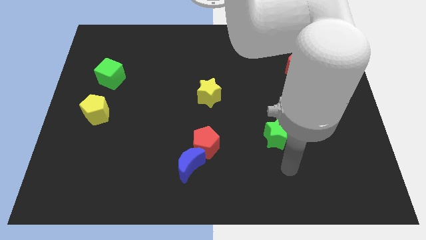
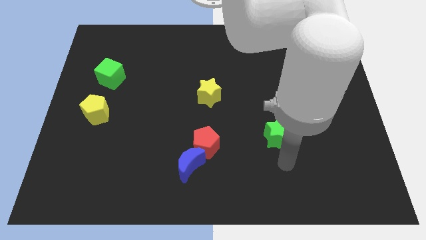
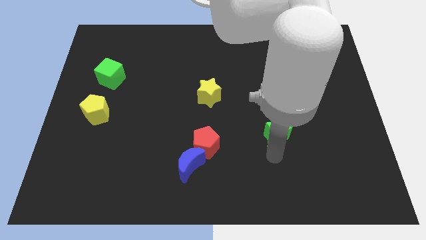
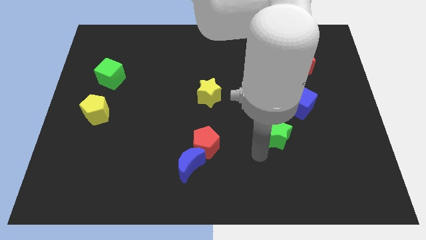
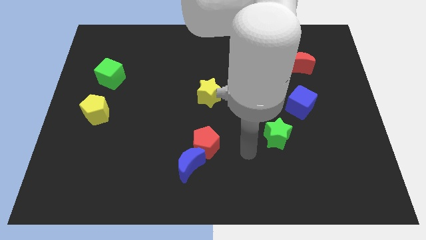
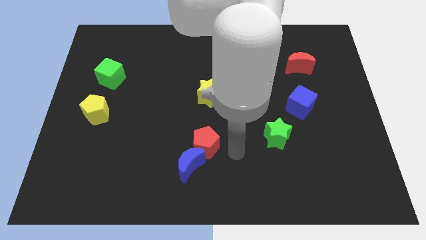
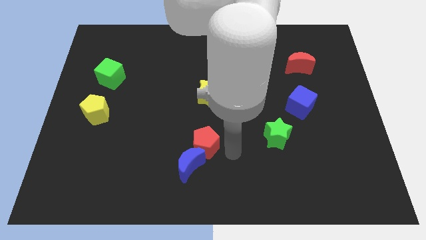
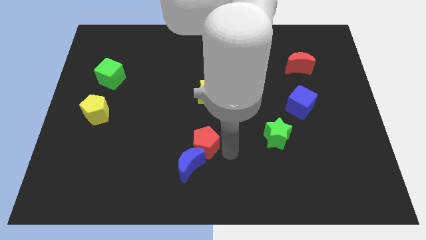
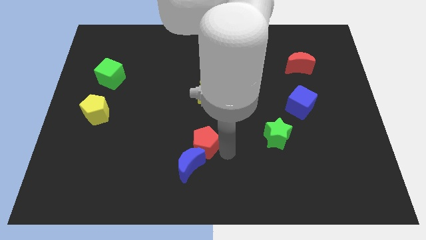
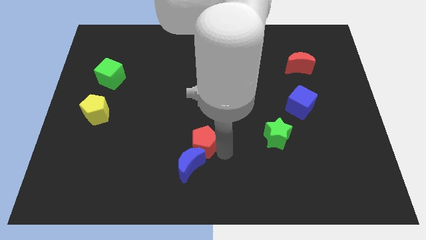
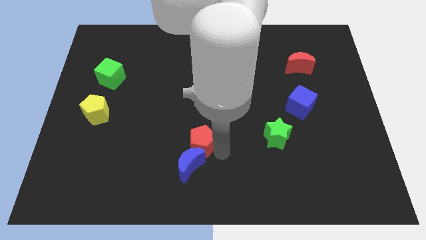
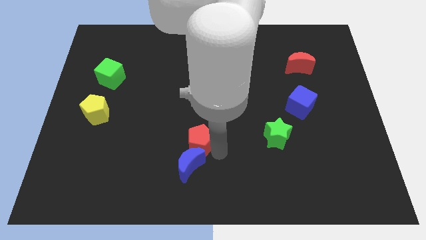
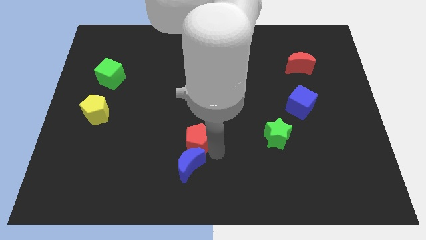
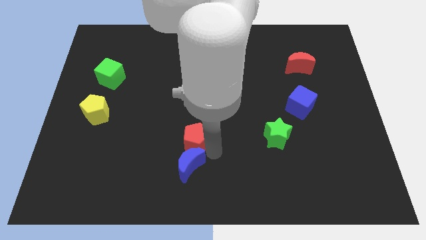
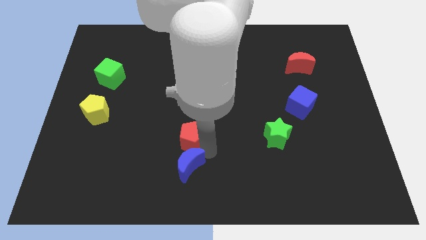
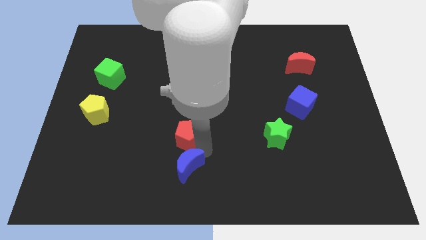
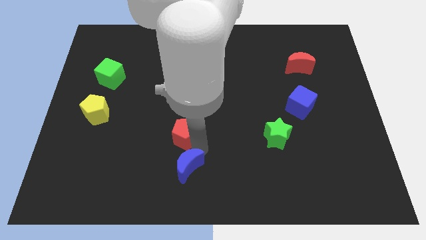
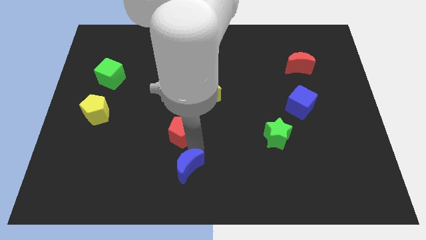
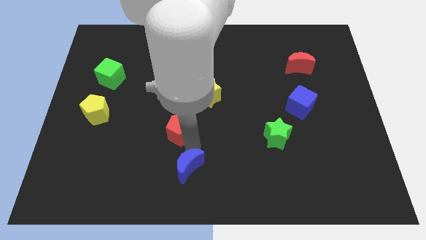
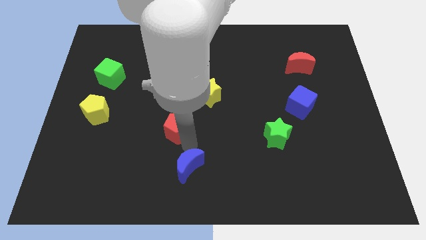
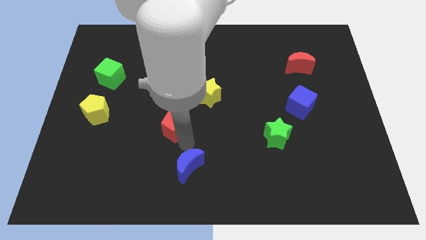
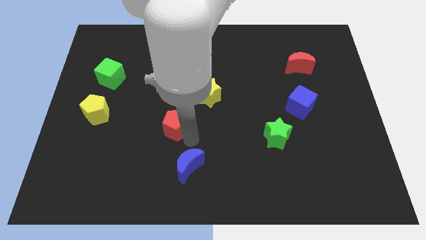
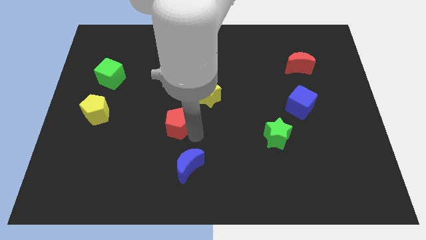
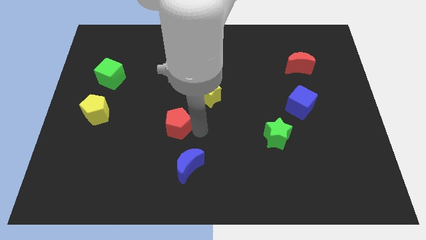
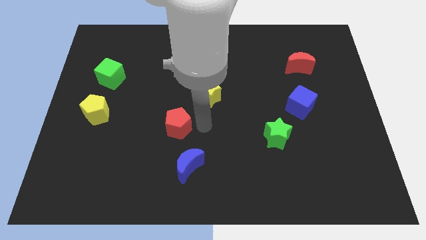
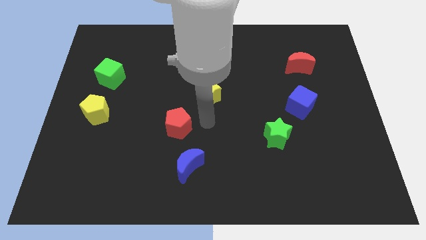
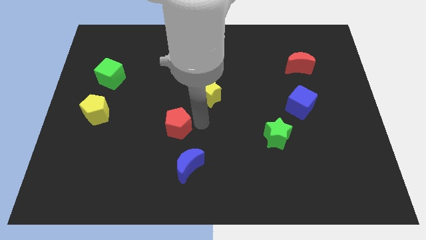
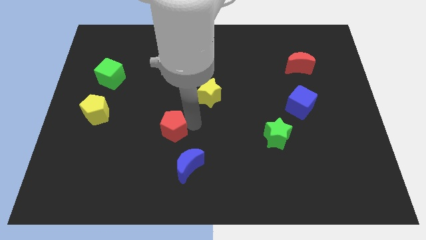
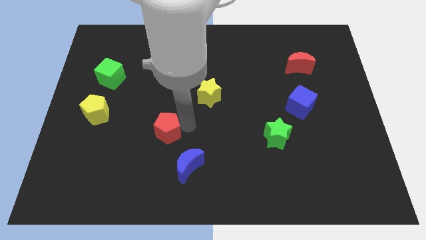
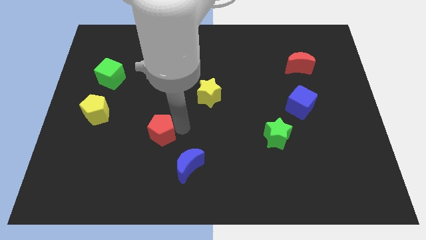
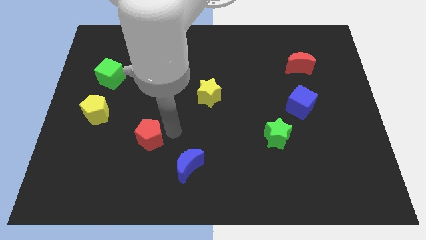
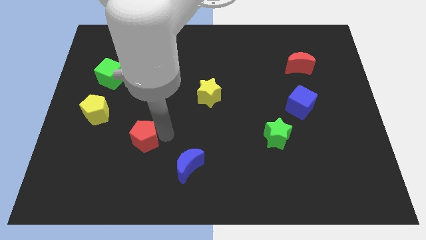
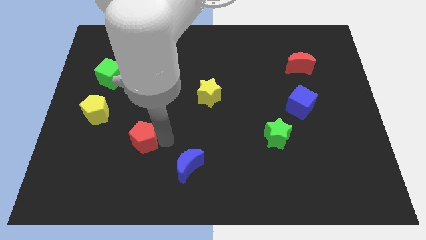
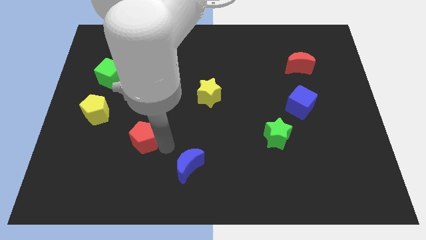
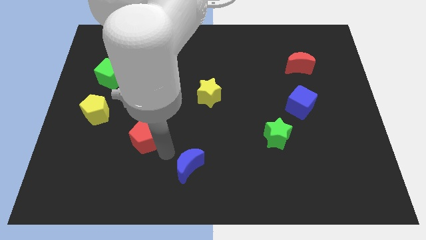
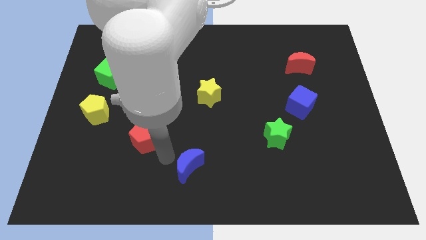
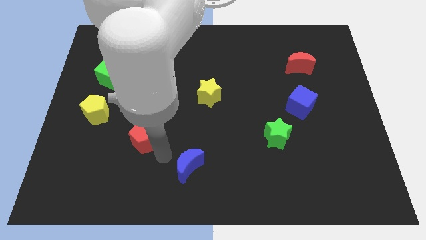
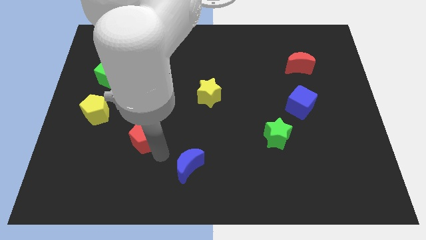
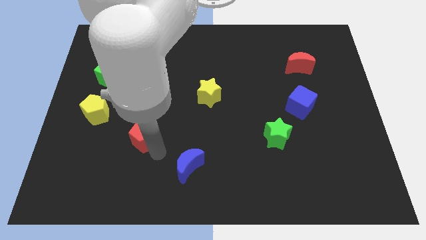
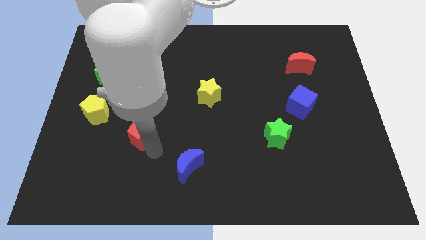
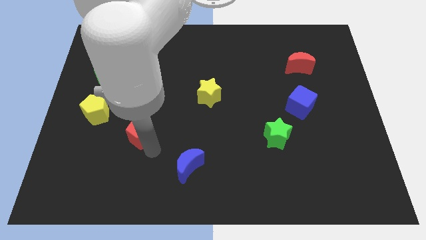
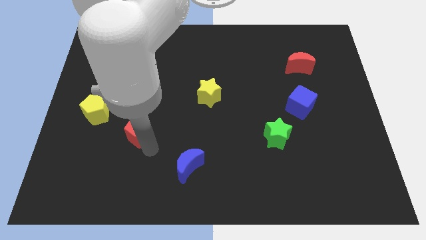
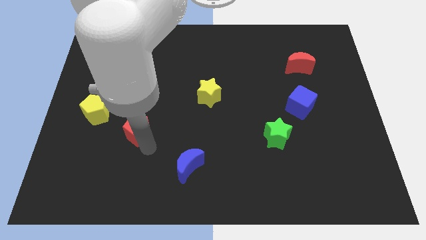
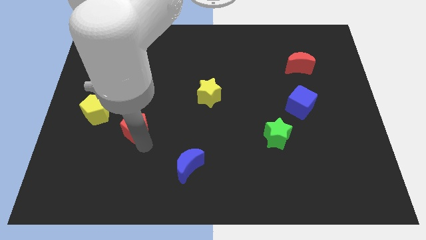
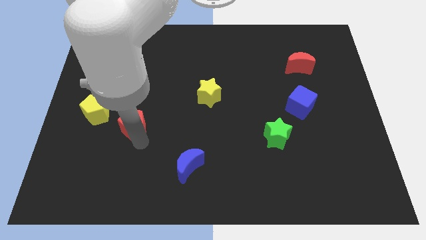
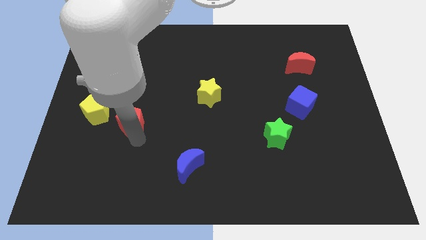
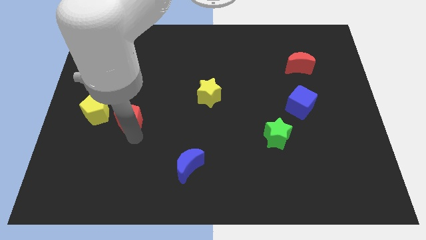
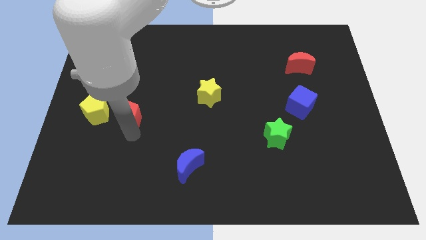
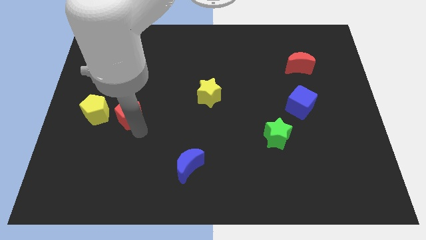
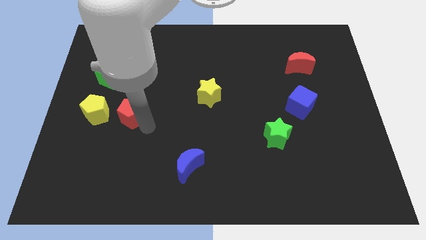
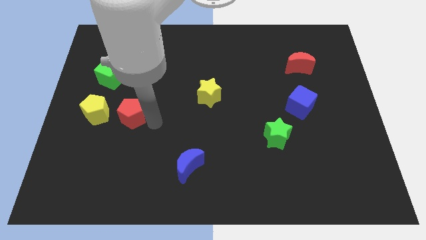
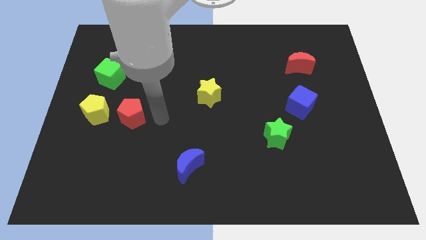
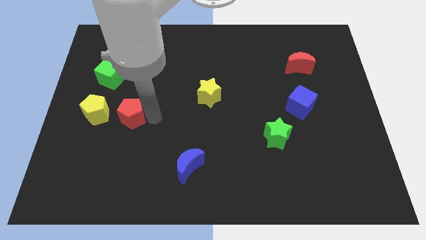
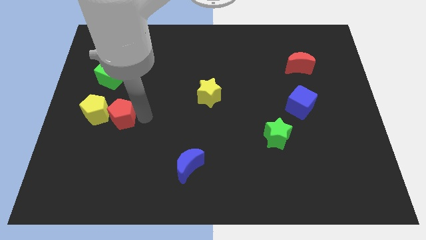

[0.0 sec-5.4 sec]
push the red pentagon close to the yellow pentagon
